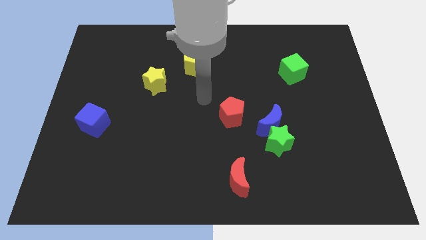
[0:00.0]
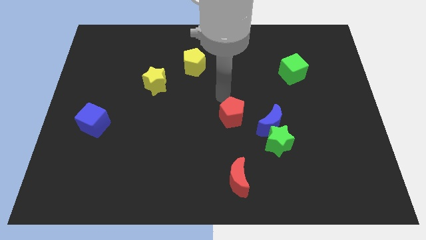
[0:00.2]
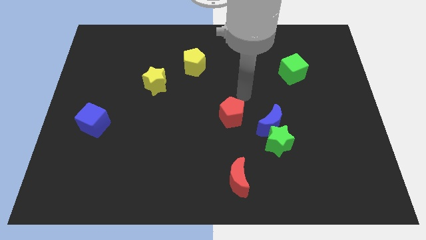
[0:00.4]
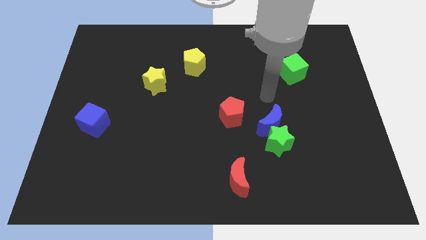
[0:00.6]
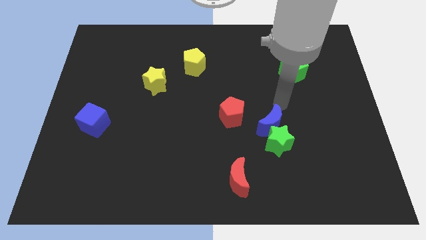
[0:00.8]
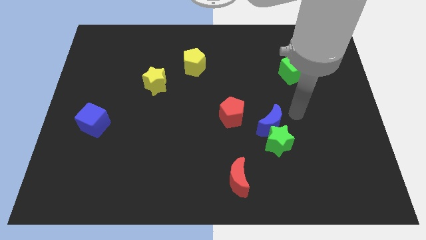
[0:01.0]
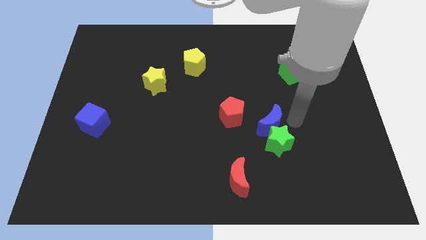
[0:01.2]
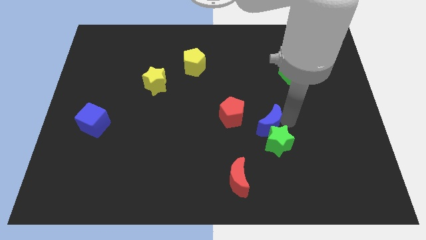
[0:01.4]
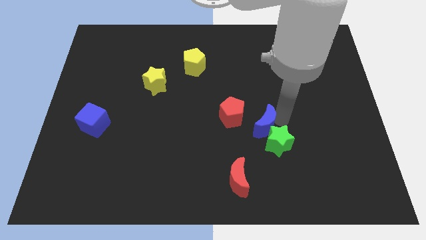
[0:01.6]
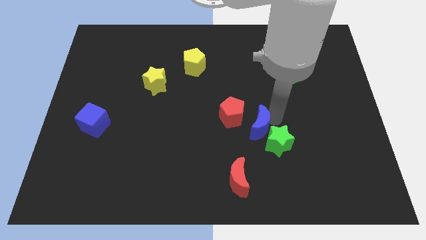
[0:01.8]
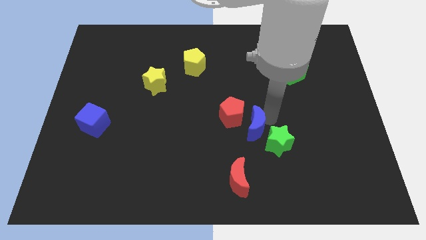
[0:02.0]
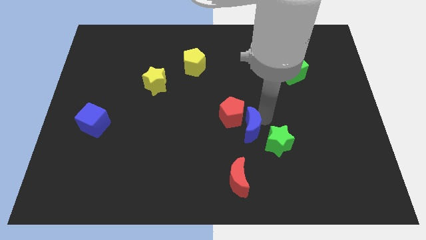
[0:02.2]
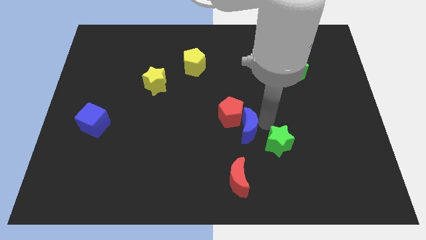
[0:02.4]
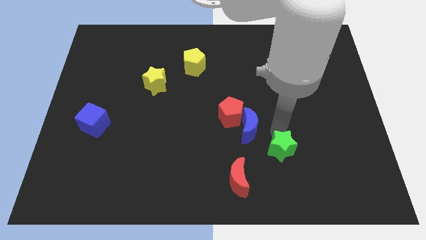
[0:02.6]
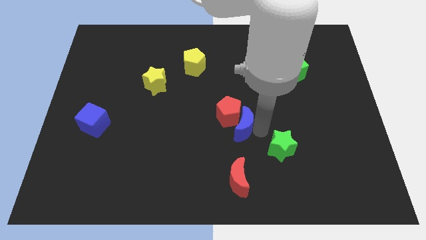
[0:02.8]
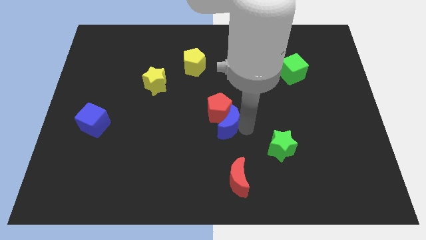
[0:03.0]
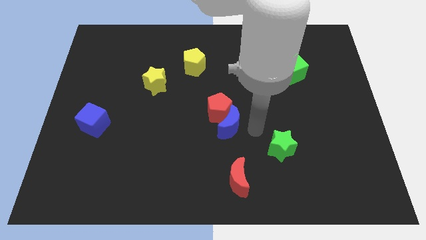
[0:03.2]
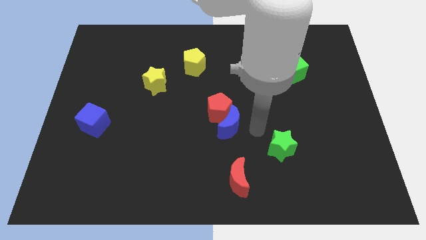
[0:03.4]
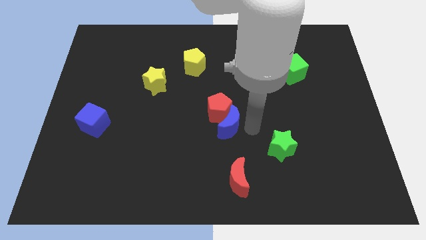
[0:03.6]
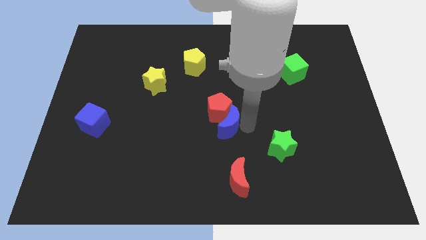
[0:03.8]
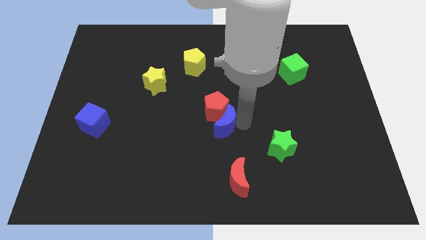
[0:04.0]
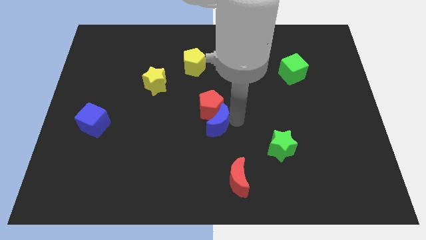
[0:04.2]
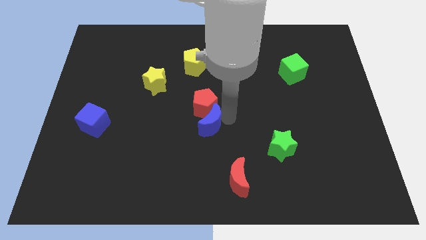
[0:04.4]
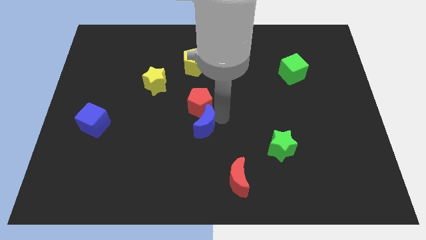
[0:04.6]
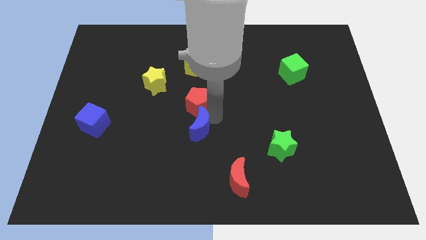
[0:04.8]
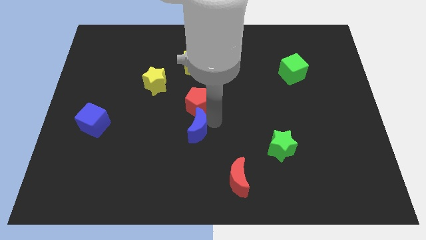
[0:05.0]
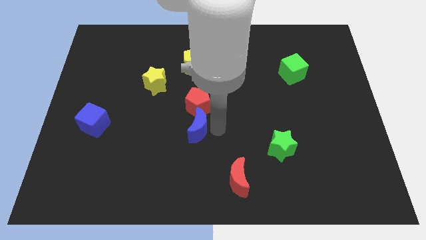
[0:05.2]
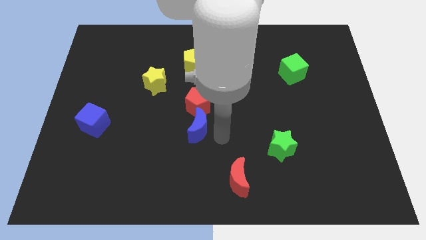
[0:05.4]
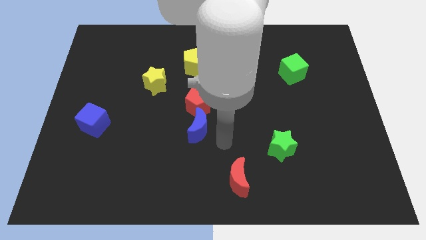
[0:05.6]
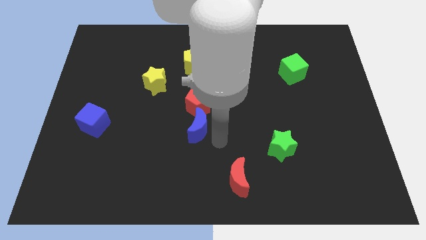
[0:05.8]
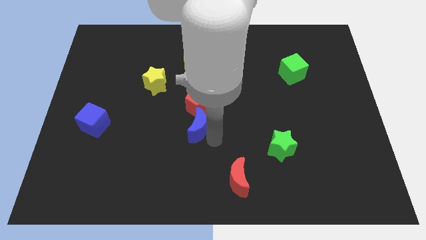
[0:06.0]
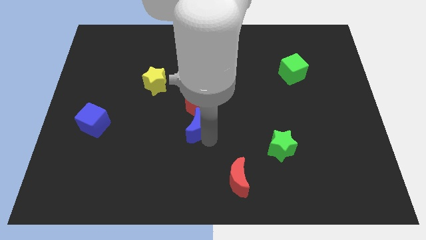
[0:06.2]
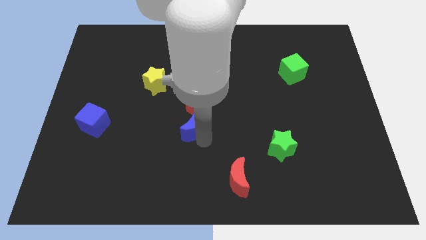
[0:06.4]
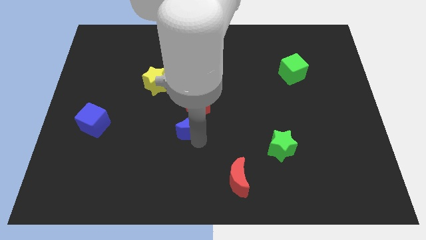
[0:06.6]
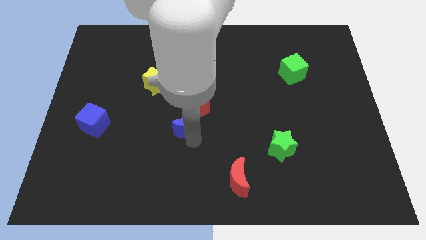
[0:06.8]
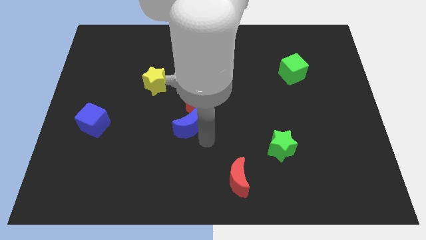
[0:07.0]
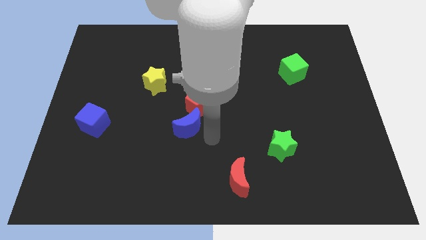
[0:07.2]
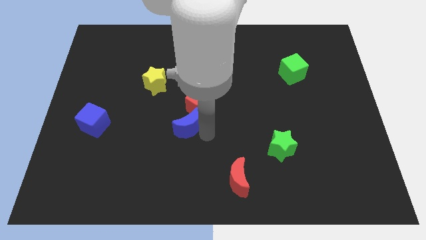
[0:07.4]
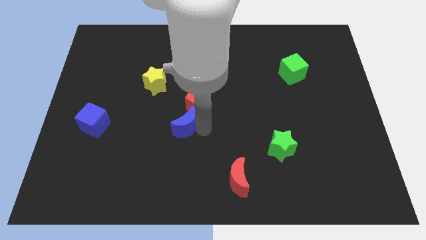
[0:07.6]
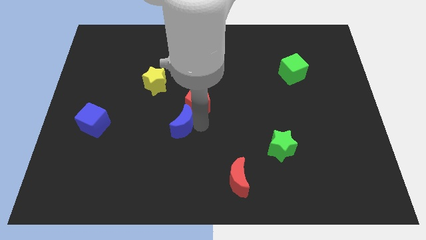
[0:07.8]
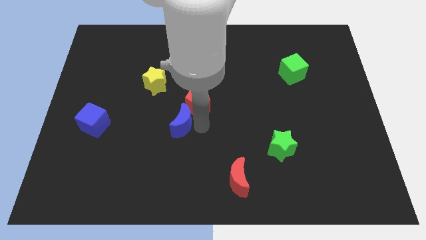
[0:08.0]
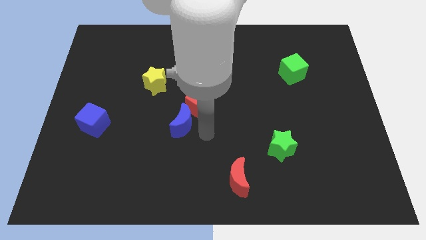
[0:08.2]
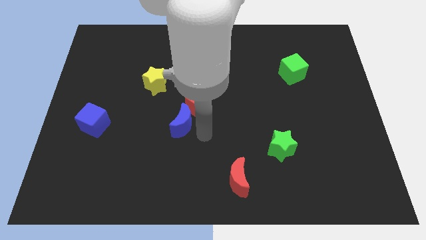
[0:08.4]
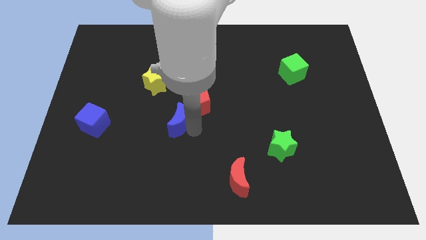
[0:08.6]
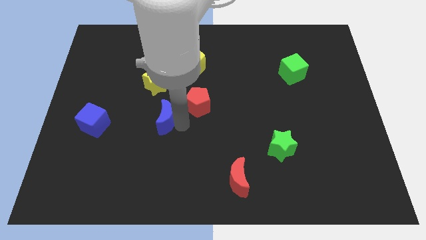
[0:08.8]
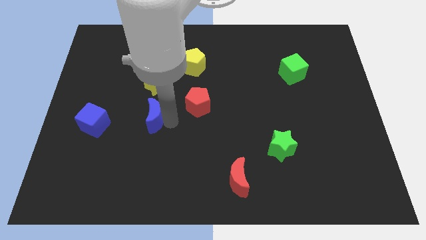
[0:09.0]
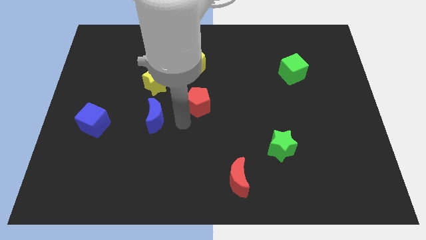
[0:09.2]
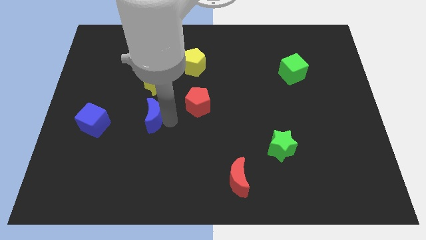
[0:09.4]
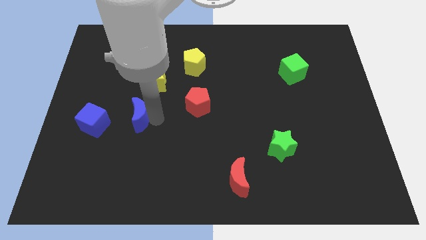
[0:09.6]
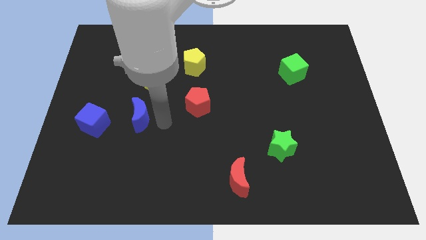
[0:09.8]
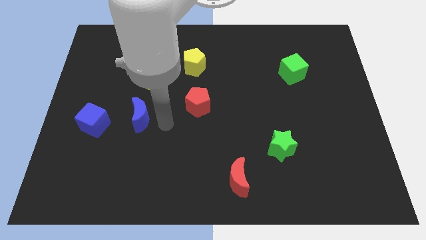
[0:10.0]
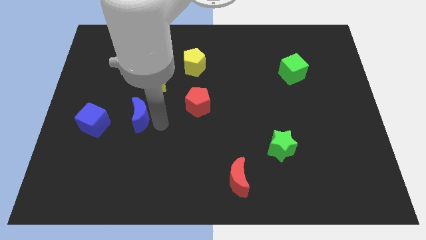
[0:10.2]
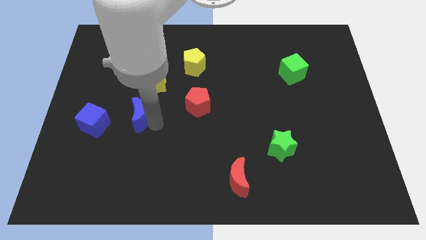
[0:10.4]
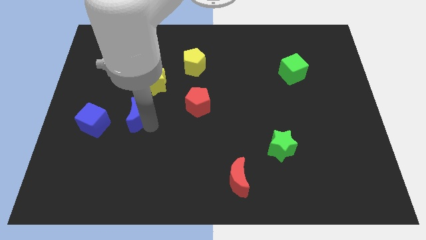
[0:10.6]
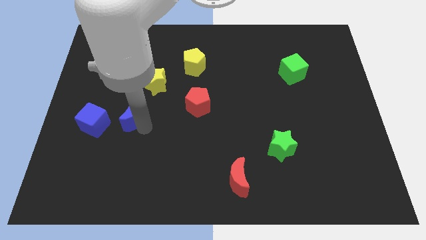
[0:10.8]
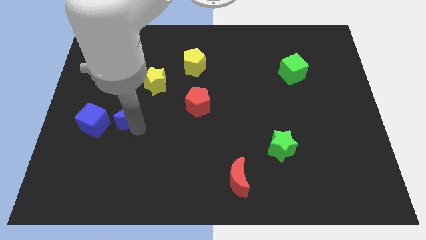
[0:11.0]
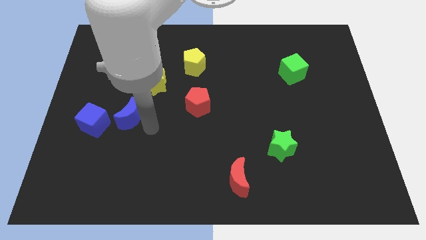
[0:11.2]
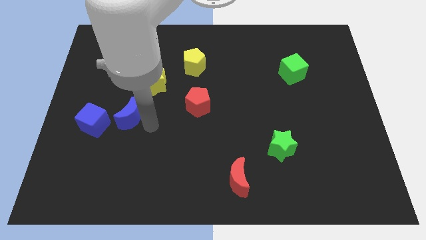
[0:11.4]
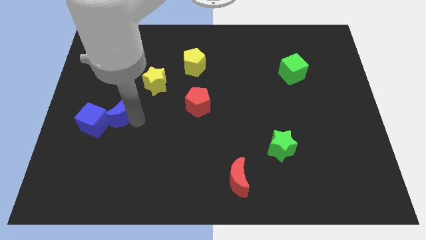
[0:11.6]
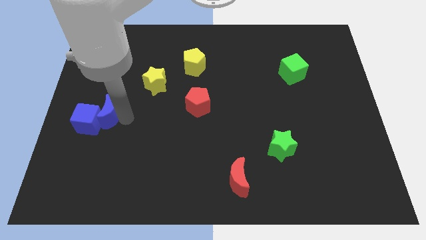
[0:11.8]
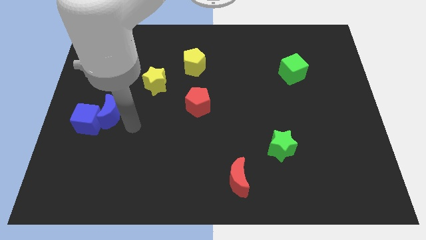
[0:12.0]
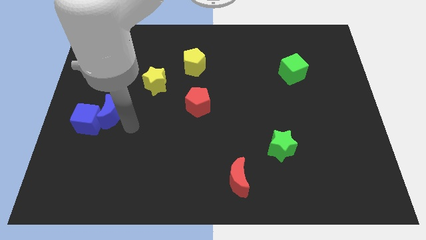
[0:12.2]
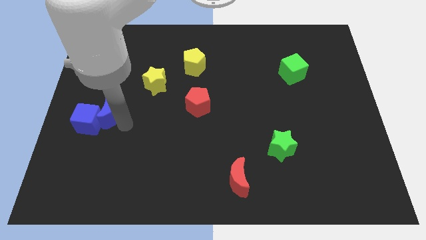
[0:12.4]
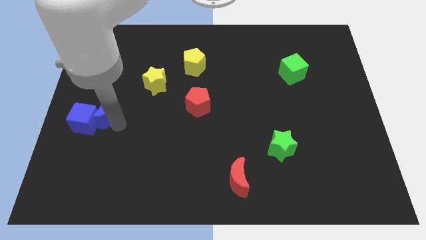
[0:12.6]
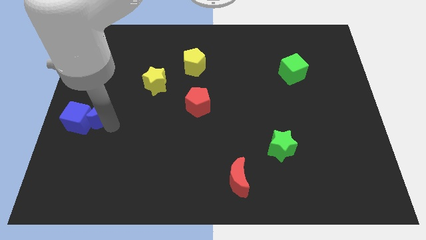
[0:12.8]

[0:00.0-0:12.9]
put the blue moon to the left side
